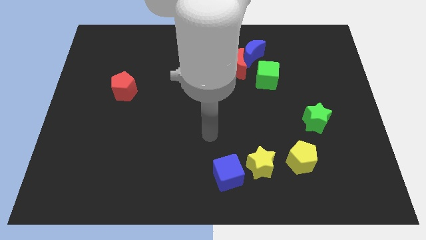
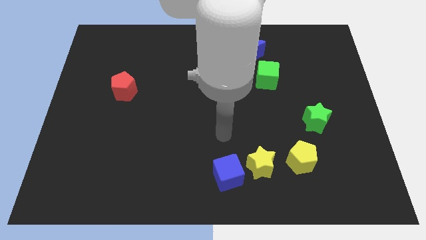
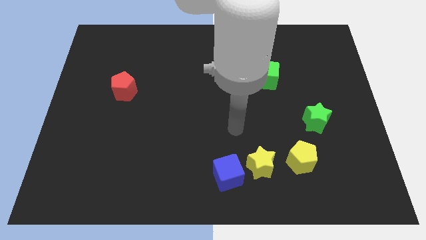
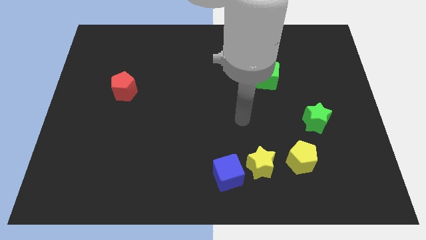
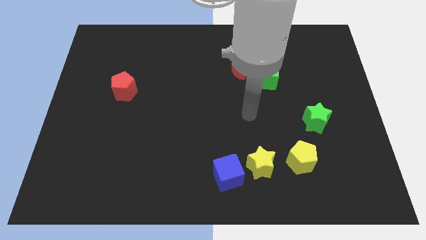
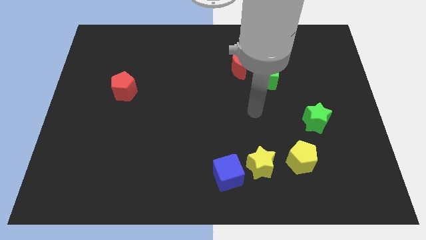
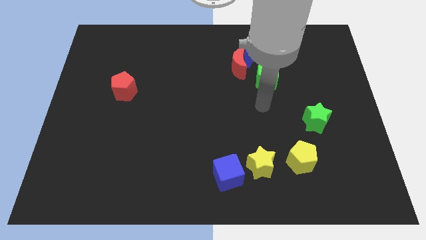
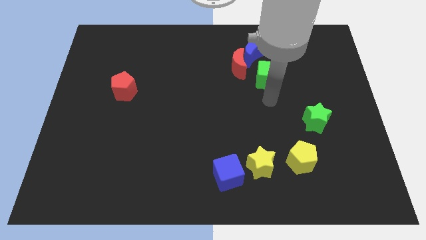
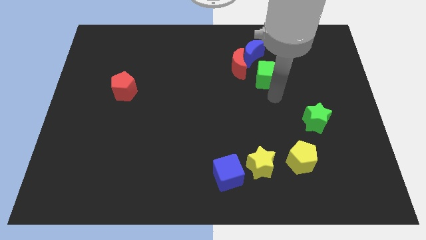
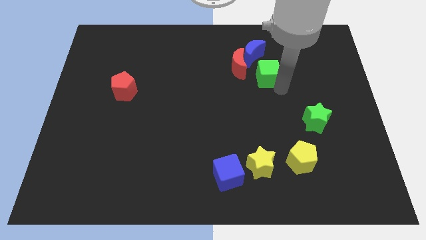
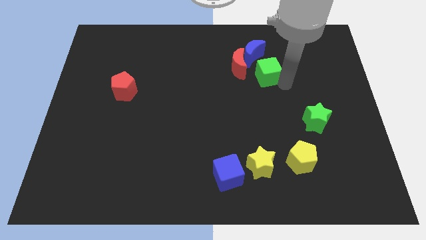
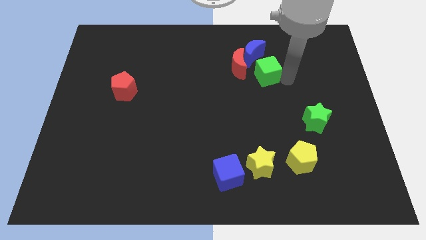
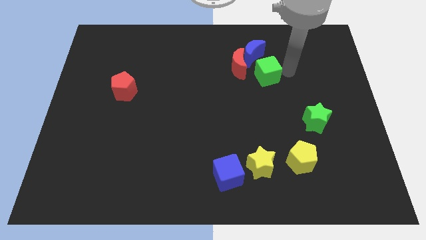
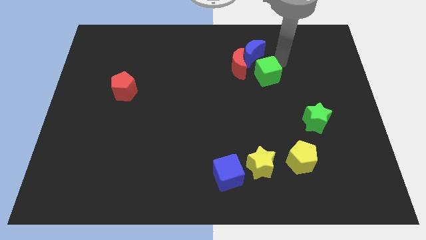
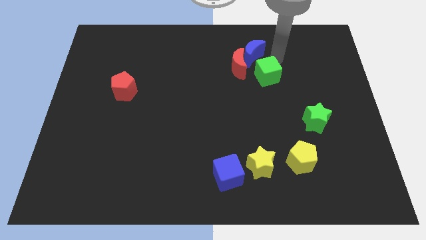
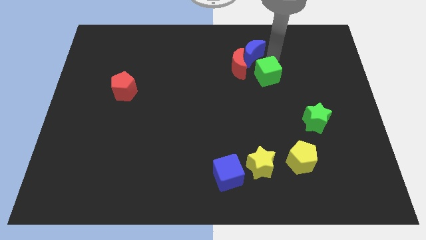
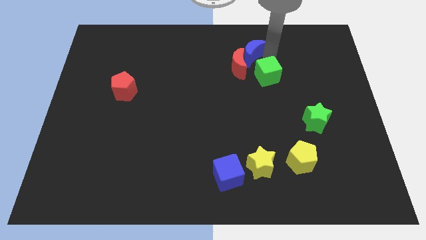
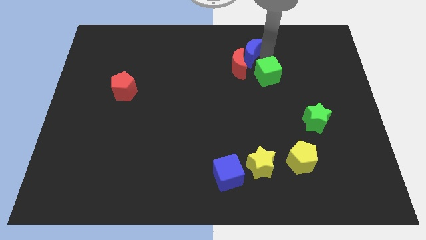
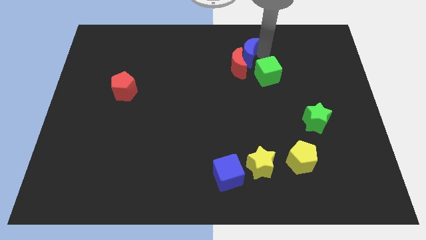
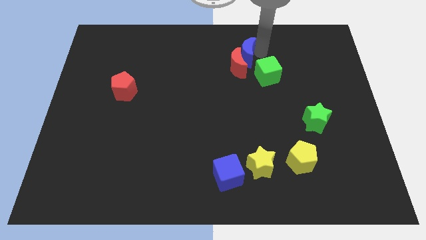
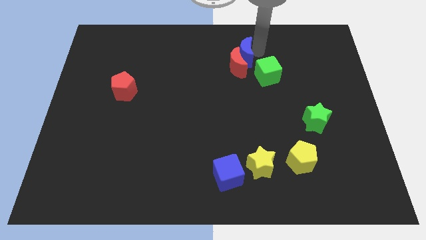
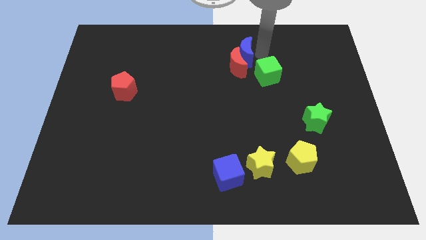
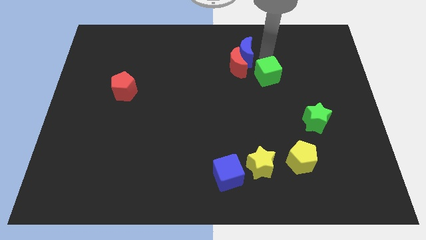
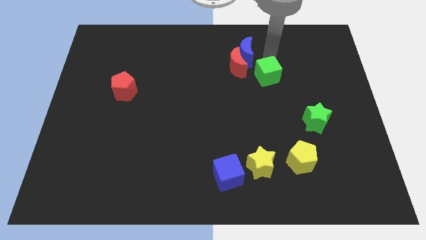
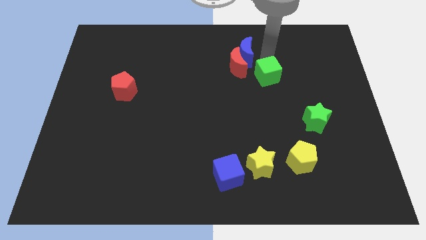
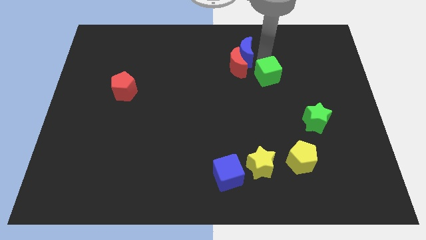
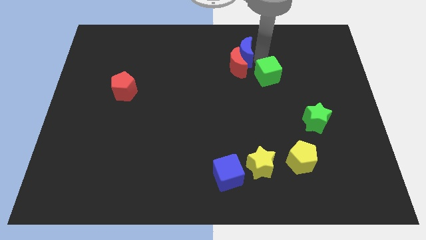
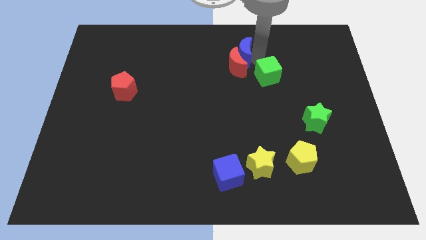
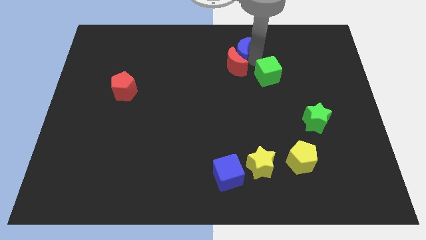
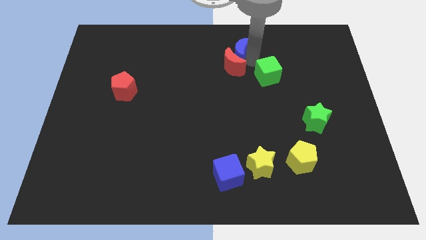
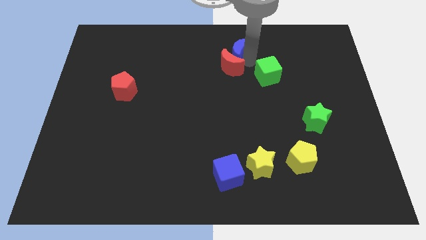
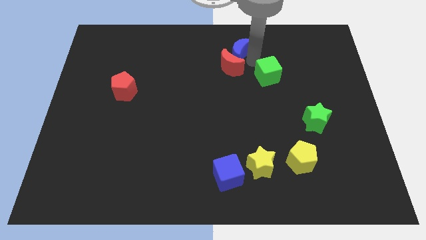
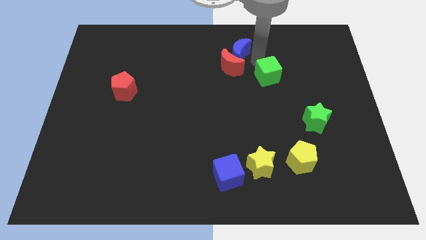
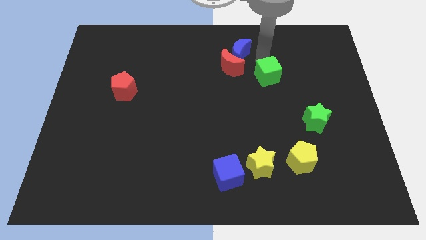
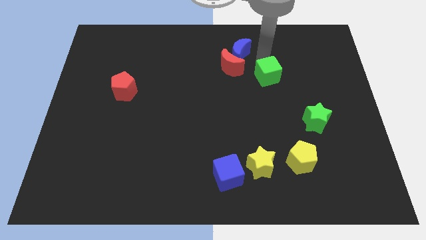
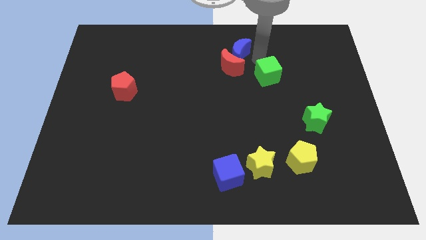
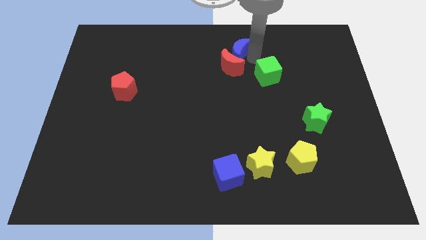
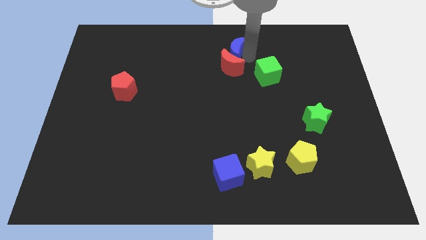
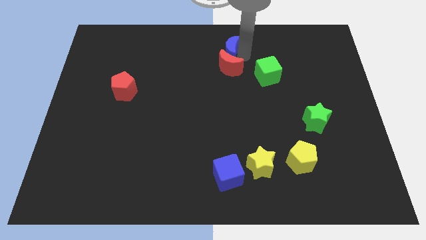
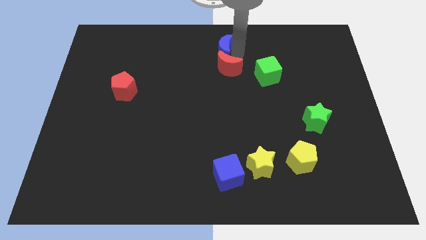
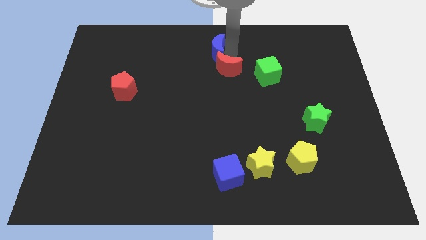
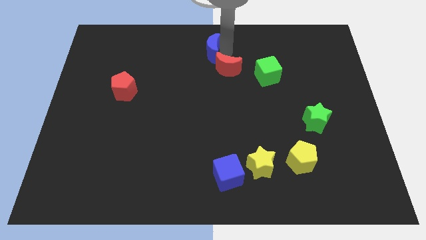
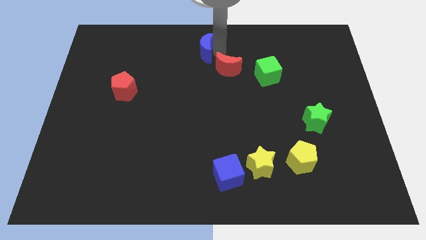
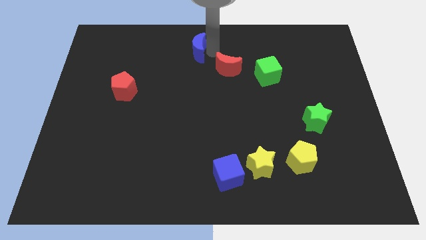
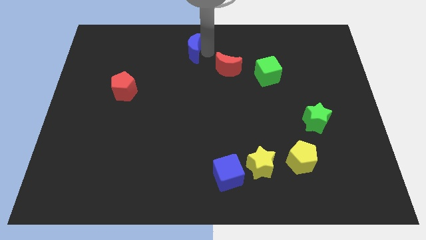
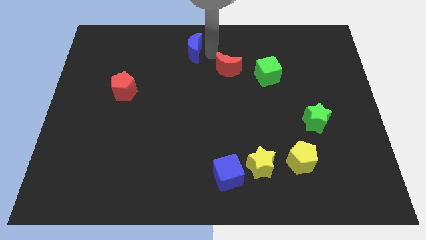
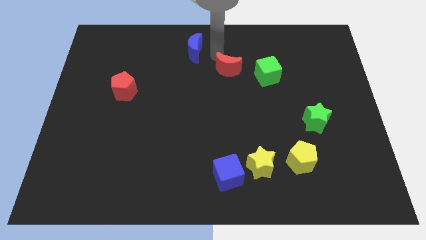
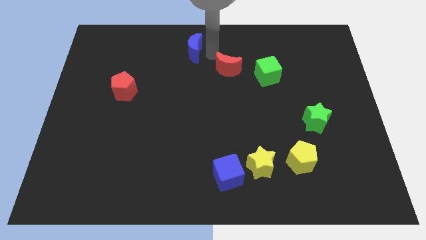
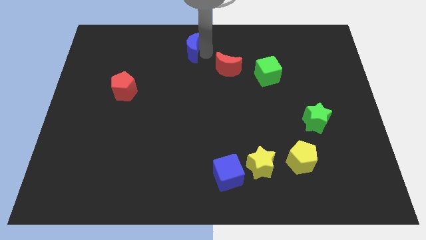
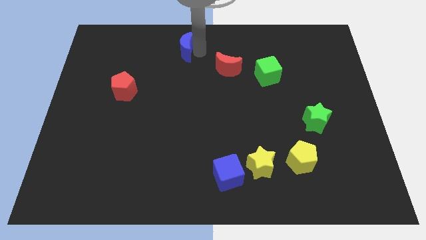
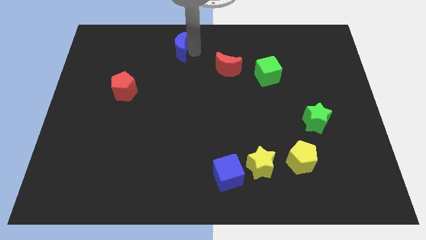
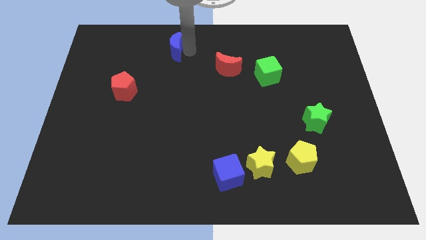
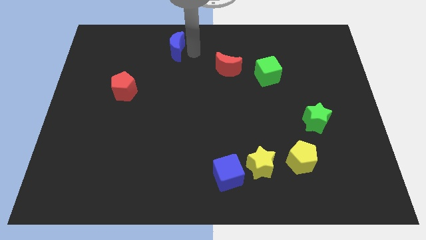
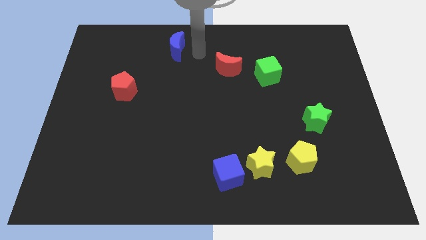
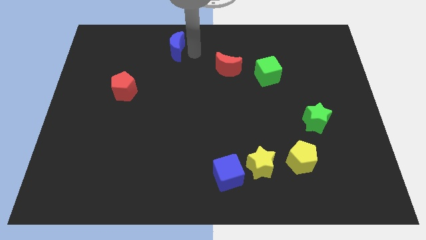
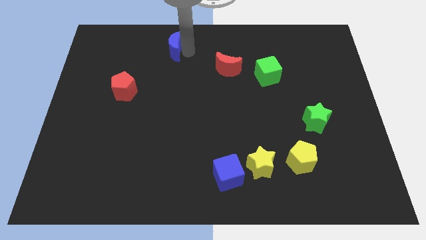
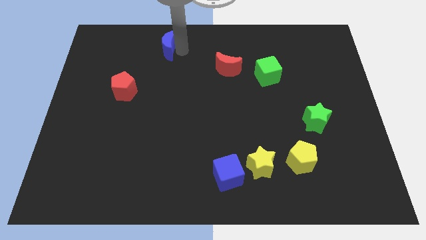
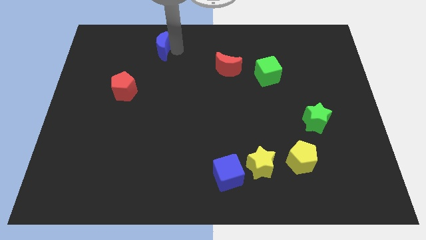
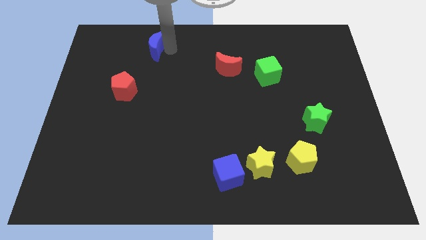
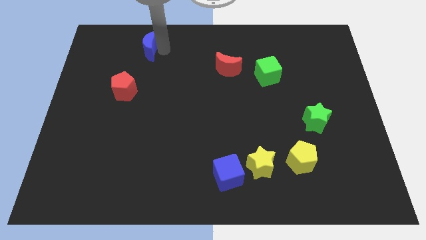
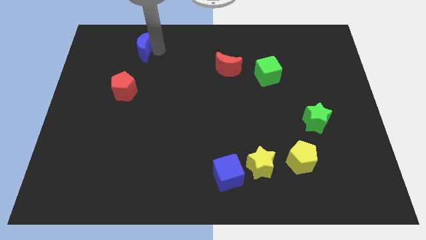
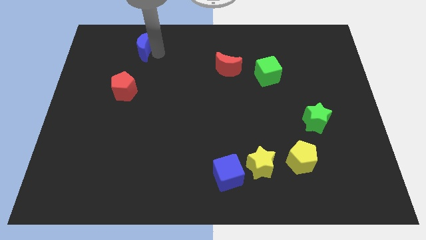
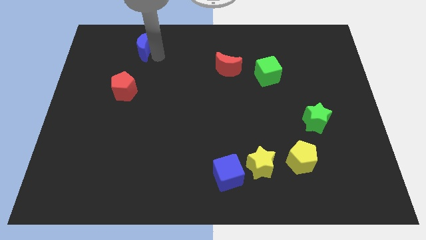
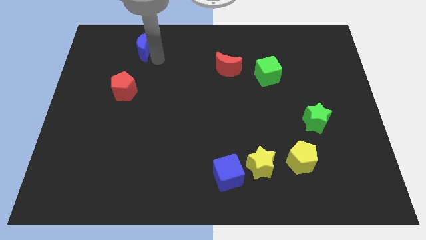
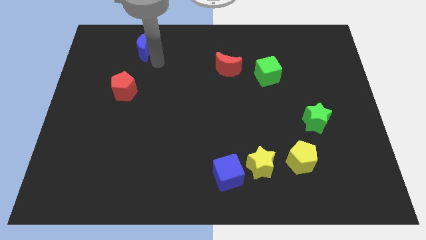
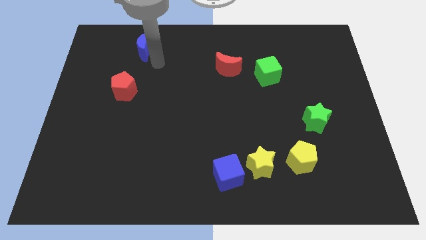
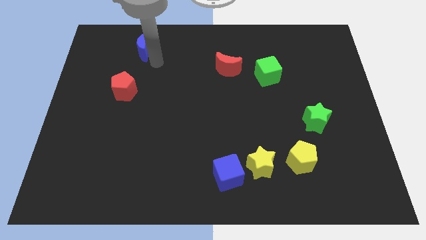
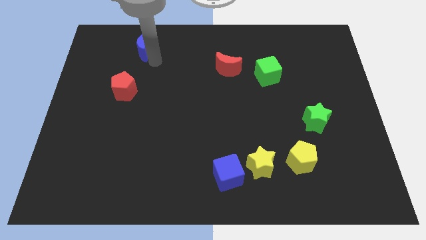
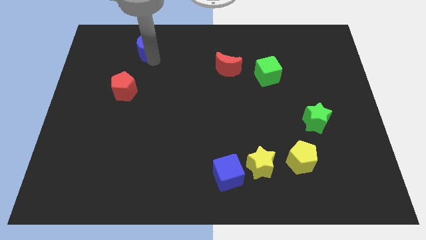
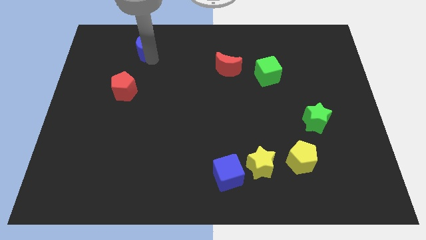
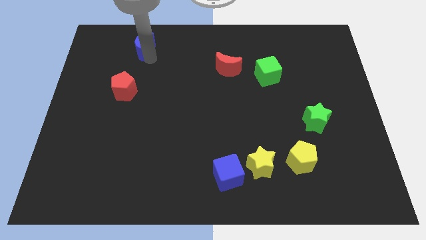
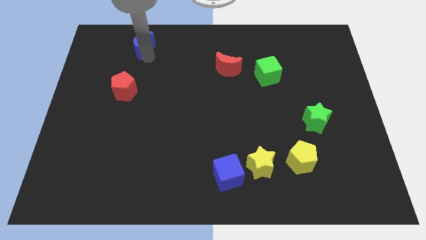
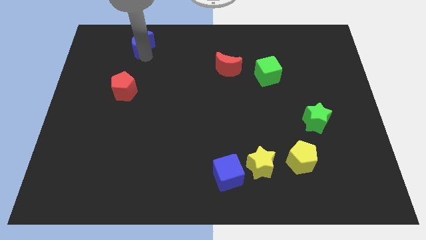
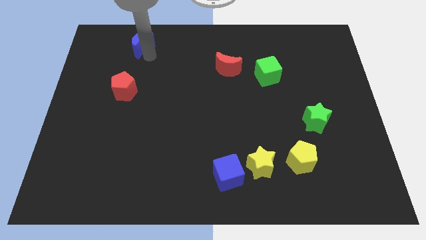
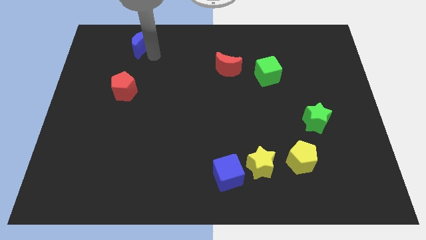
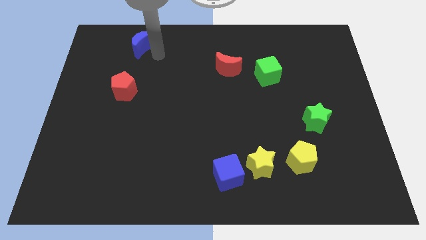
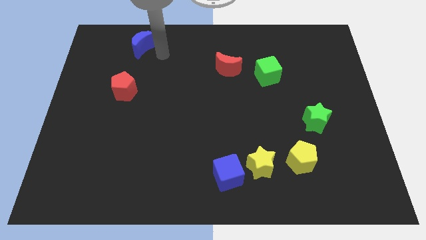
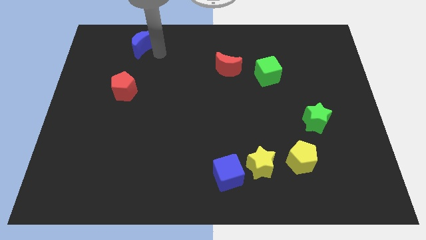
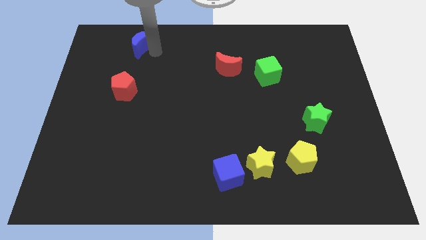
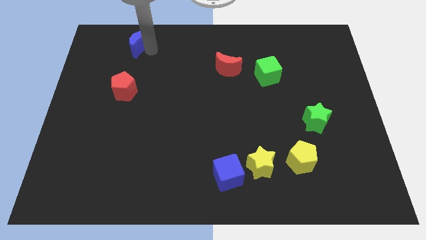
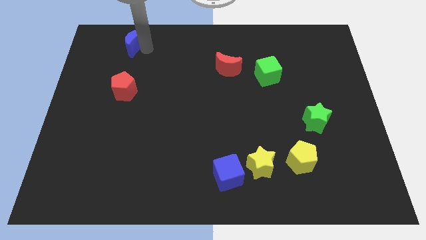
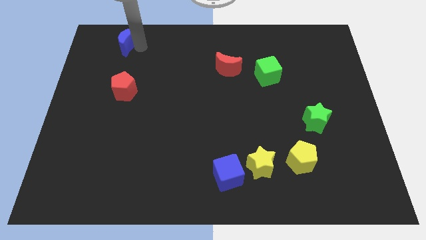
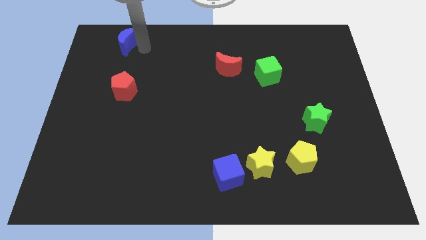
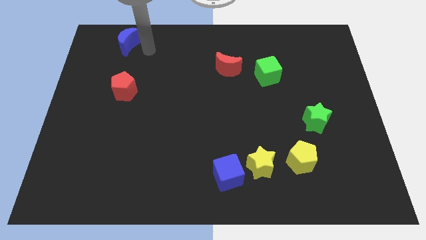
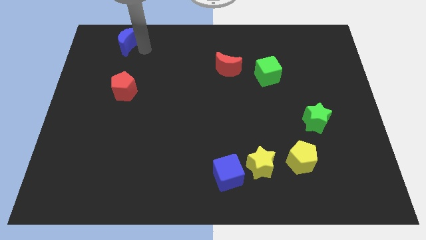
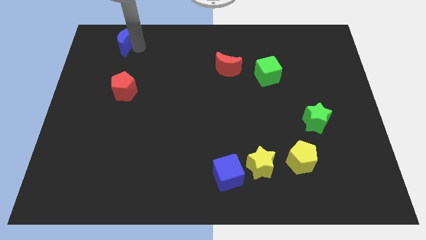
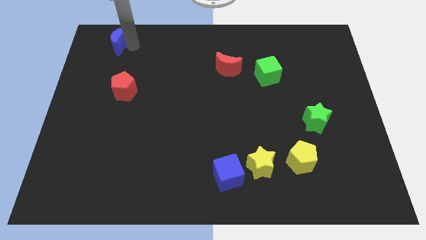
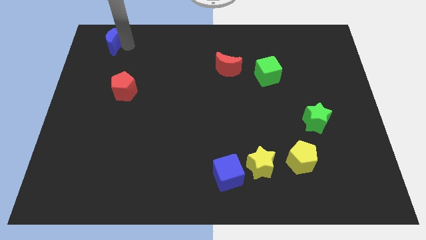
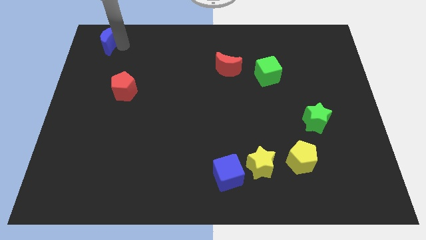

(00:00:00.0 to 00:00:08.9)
move the blue moon to the top left
